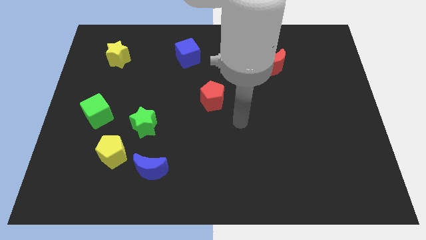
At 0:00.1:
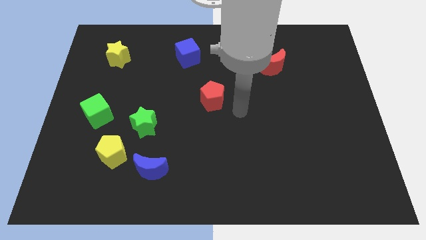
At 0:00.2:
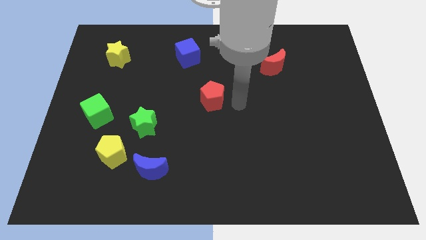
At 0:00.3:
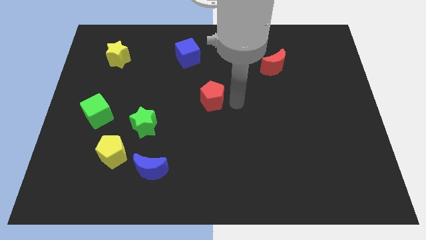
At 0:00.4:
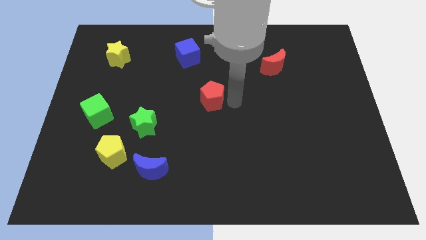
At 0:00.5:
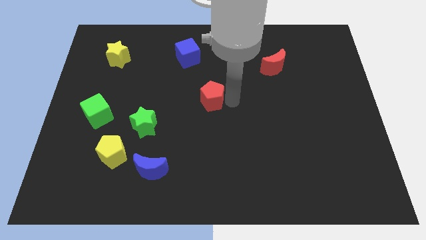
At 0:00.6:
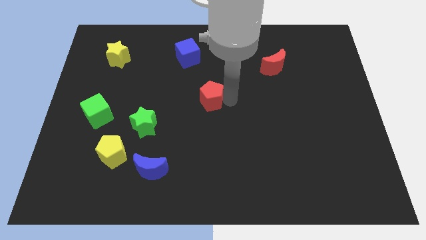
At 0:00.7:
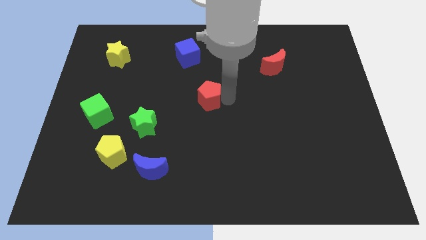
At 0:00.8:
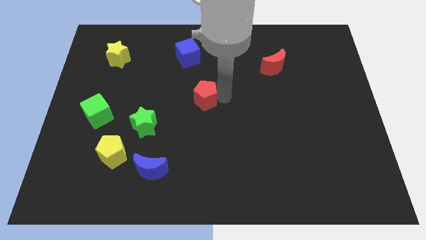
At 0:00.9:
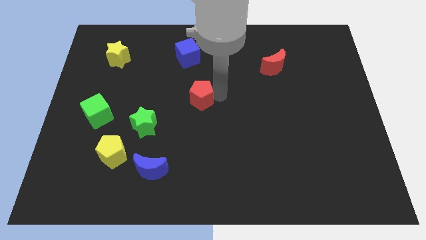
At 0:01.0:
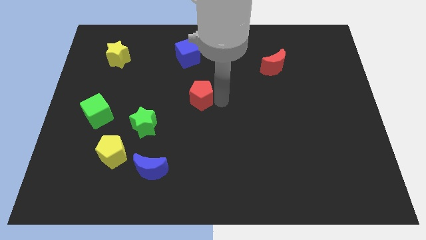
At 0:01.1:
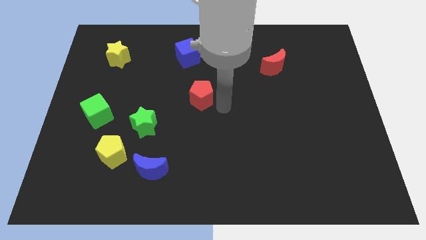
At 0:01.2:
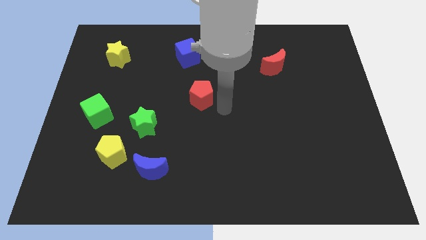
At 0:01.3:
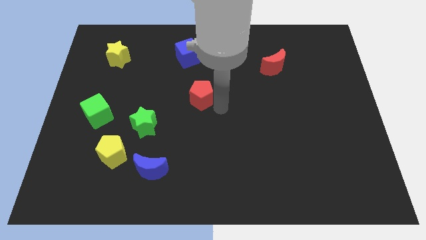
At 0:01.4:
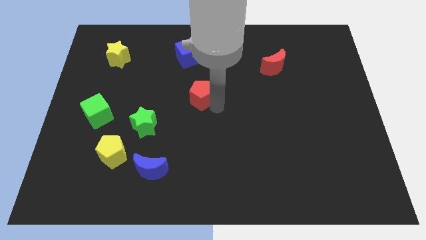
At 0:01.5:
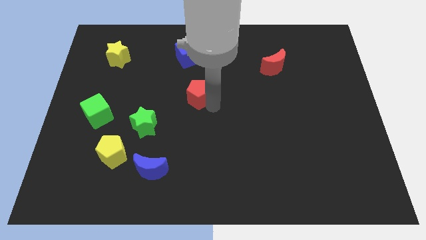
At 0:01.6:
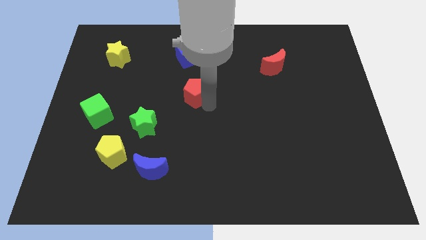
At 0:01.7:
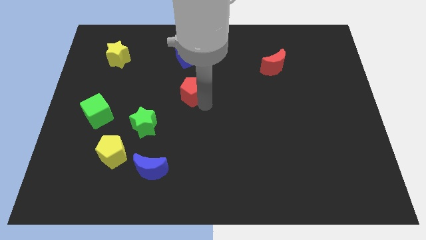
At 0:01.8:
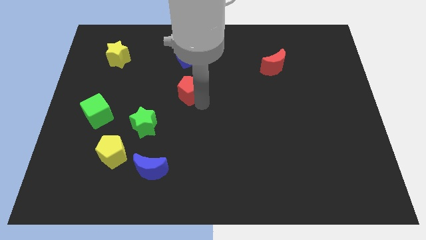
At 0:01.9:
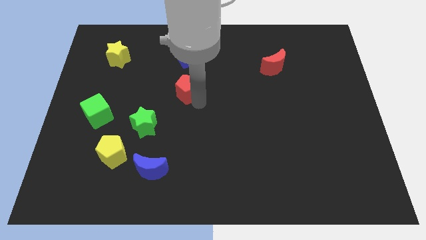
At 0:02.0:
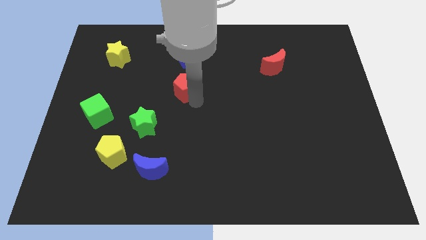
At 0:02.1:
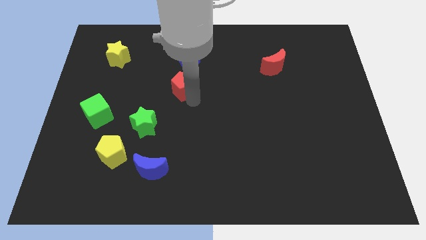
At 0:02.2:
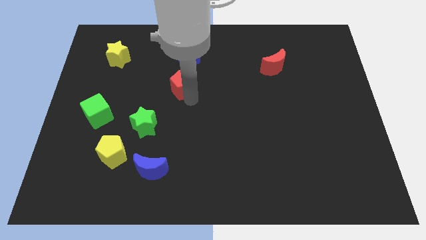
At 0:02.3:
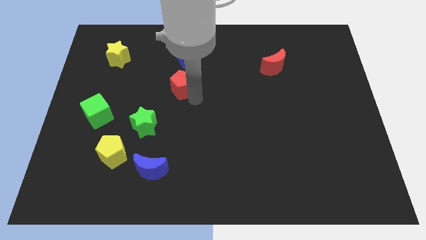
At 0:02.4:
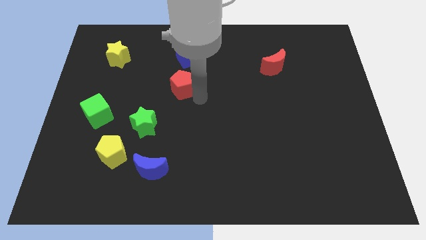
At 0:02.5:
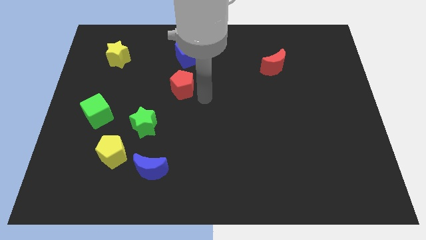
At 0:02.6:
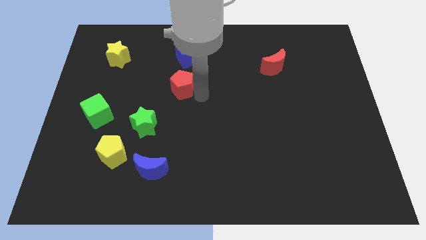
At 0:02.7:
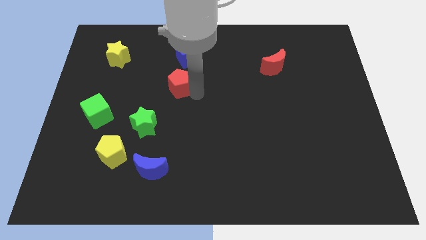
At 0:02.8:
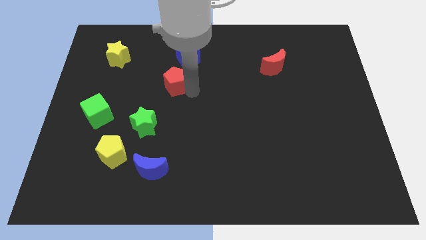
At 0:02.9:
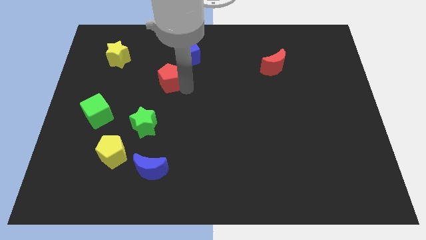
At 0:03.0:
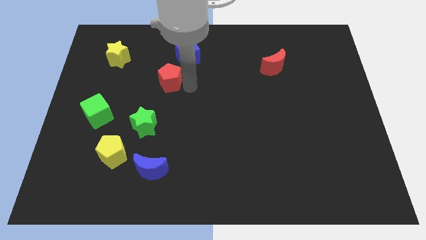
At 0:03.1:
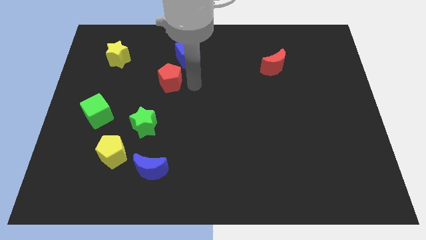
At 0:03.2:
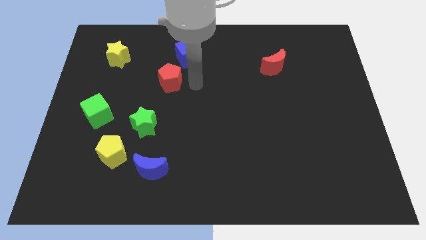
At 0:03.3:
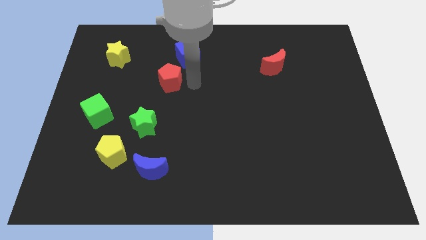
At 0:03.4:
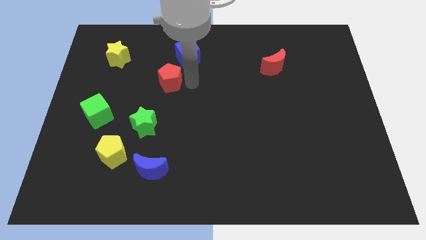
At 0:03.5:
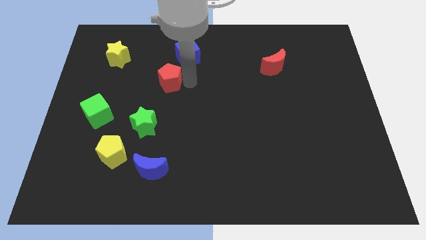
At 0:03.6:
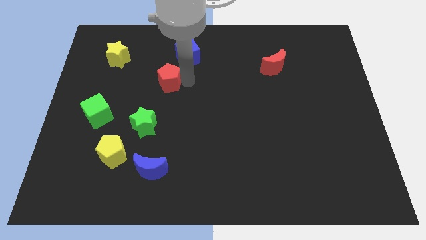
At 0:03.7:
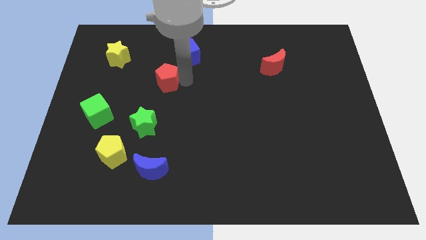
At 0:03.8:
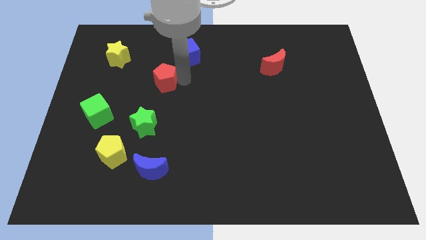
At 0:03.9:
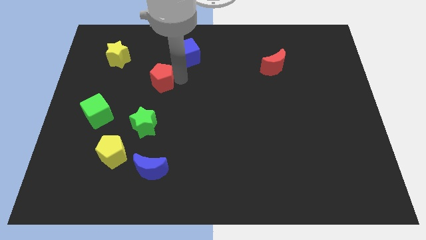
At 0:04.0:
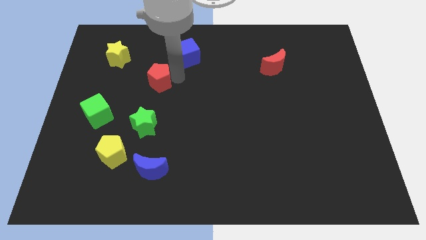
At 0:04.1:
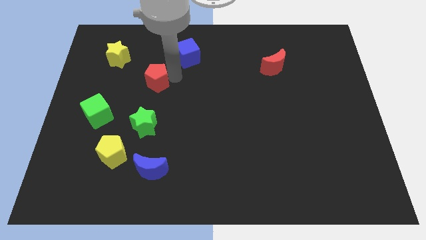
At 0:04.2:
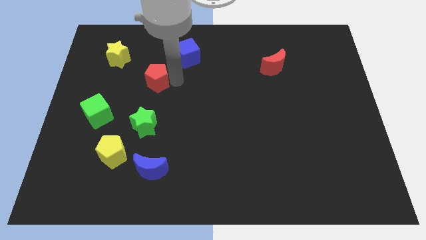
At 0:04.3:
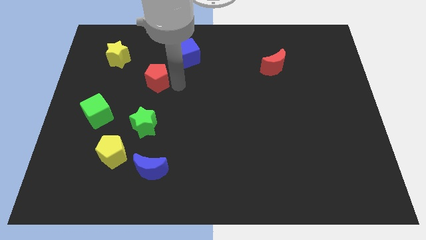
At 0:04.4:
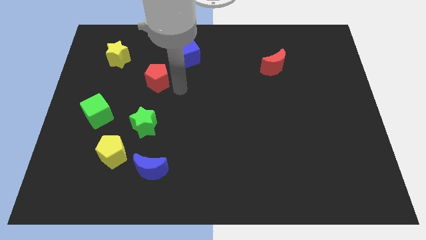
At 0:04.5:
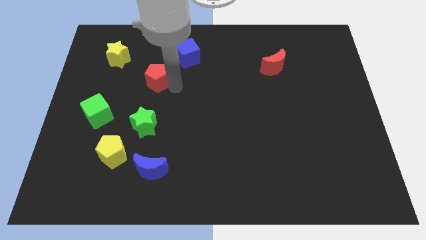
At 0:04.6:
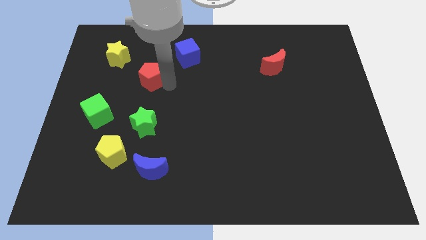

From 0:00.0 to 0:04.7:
push the red pentagon to the bottom right side of the yellow star

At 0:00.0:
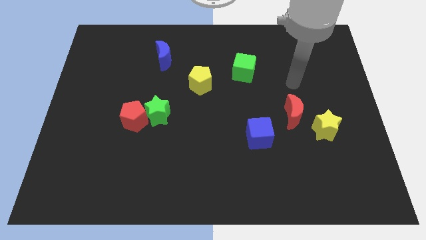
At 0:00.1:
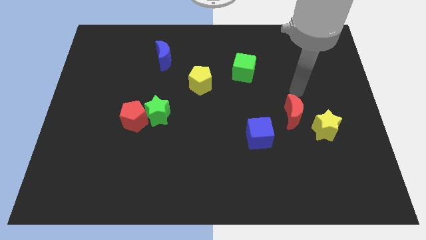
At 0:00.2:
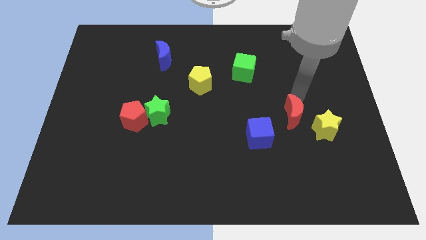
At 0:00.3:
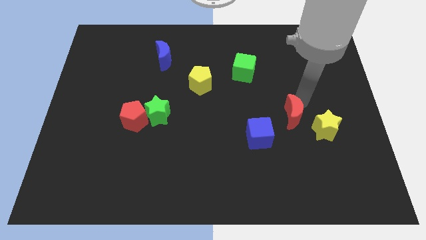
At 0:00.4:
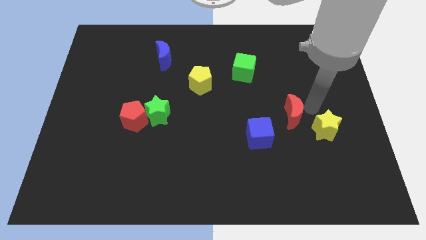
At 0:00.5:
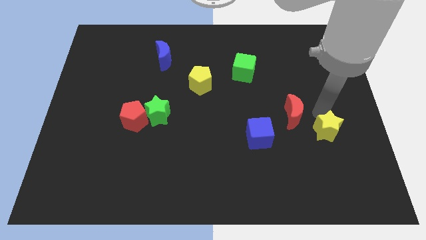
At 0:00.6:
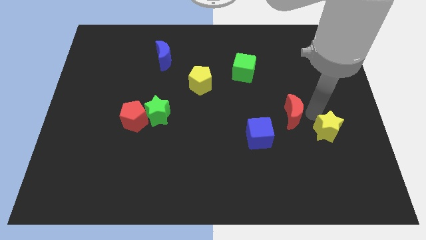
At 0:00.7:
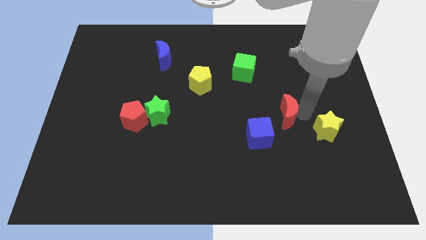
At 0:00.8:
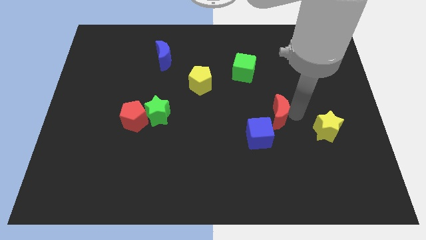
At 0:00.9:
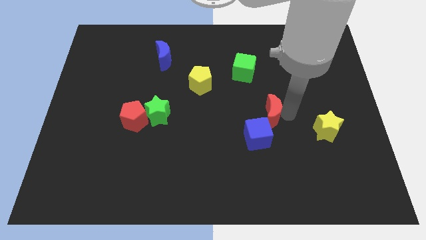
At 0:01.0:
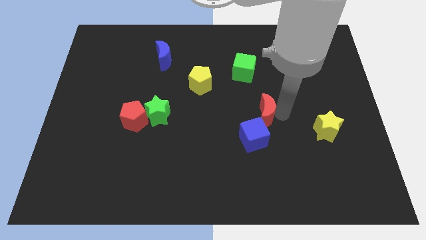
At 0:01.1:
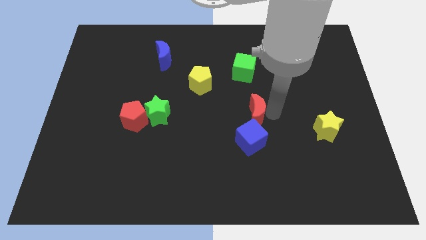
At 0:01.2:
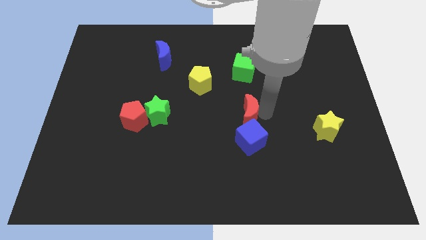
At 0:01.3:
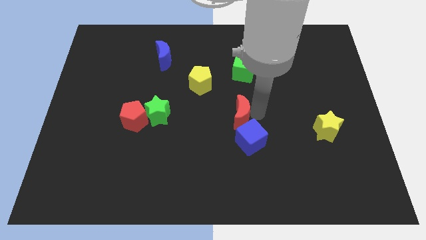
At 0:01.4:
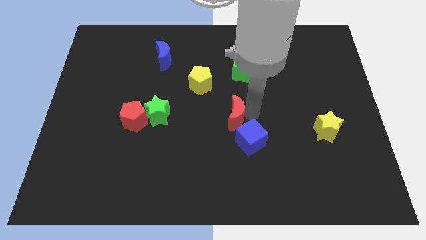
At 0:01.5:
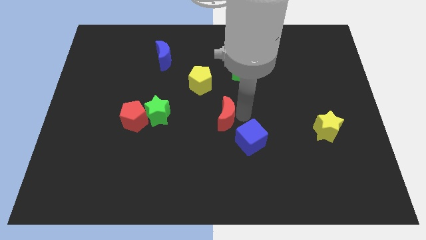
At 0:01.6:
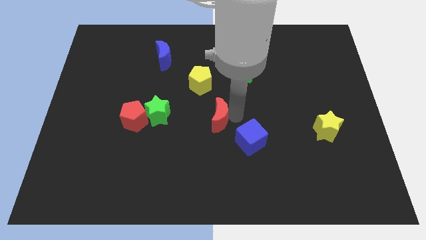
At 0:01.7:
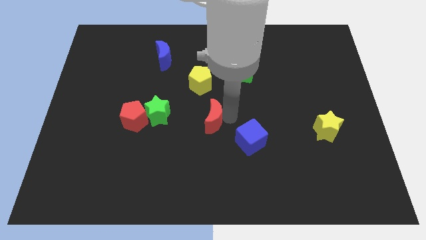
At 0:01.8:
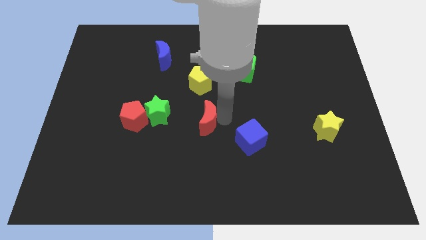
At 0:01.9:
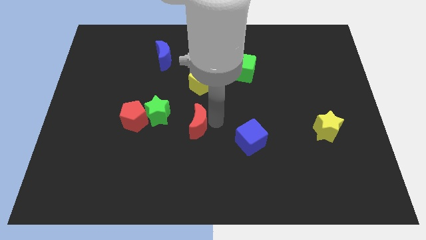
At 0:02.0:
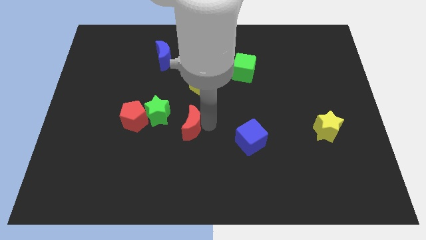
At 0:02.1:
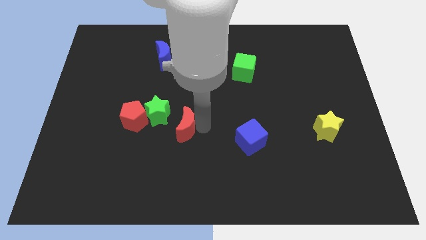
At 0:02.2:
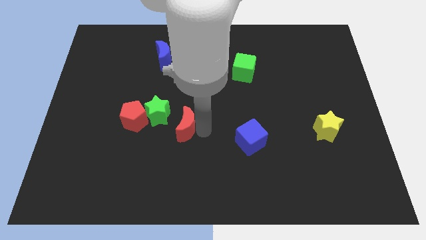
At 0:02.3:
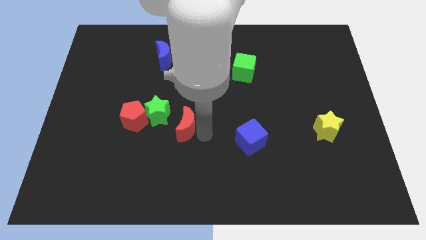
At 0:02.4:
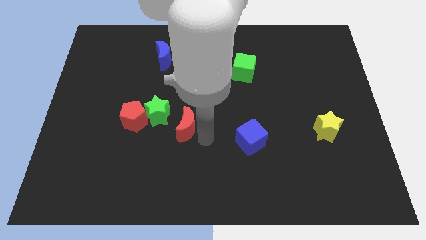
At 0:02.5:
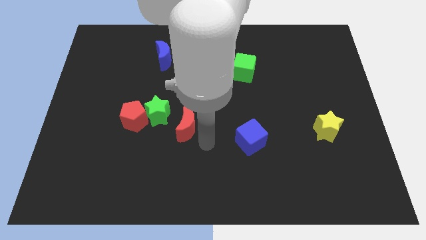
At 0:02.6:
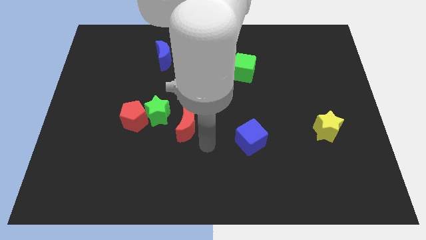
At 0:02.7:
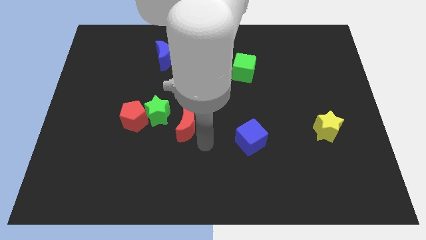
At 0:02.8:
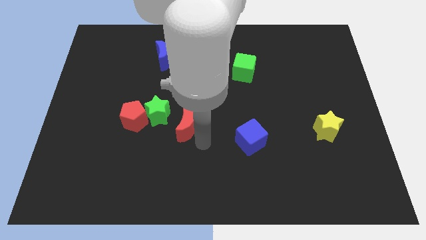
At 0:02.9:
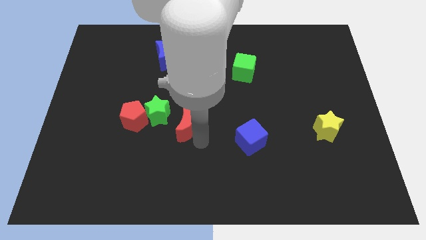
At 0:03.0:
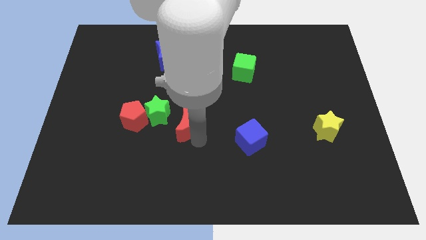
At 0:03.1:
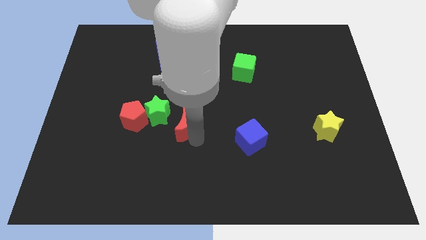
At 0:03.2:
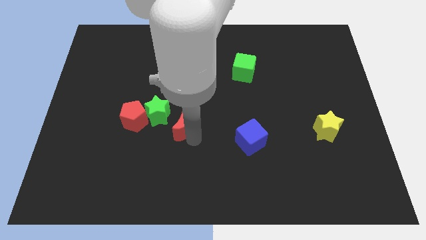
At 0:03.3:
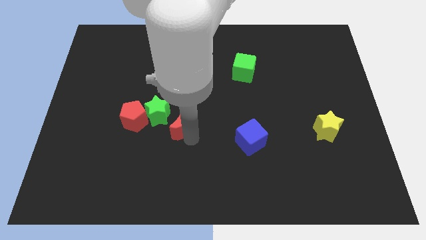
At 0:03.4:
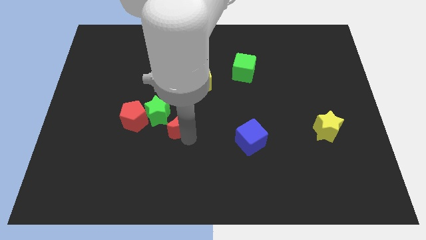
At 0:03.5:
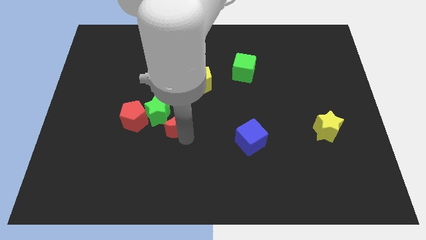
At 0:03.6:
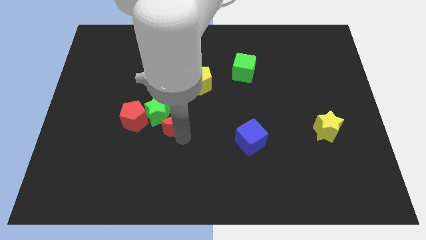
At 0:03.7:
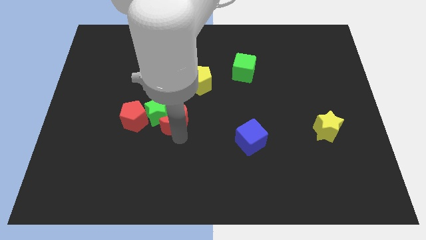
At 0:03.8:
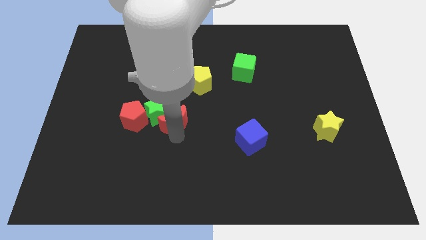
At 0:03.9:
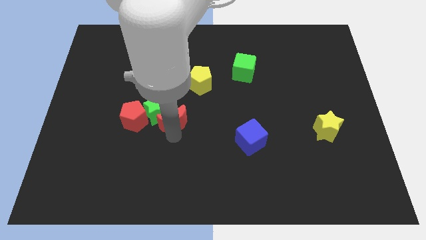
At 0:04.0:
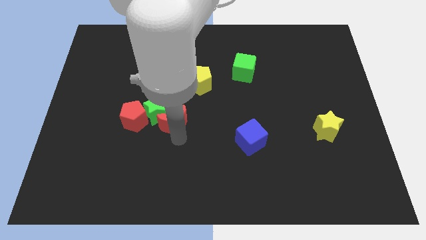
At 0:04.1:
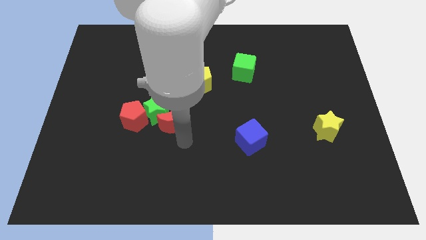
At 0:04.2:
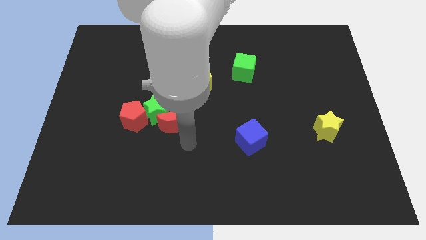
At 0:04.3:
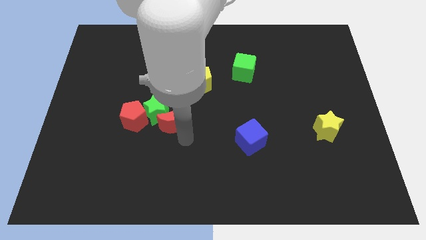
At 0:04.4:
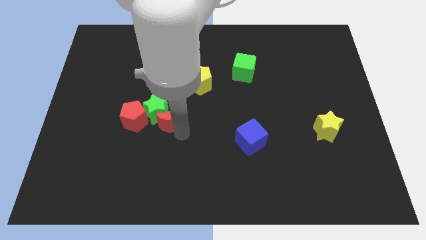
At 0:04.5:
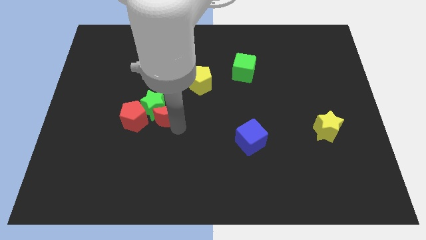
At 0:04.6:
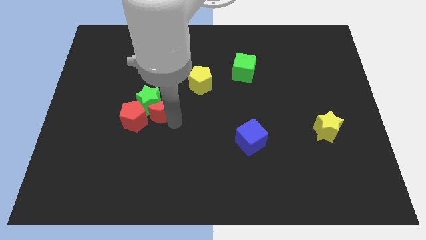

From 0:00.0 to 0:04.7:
put the red moon to the top right side of the red pentagon
